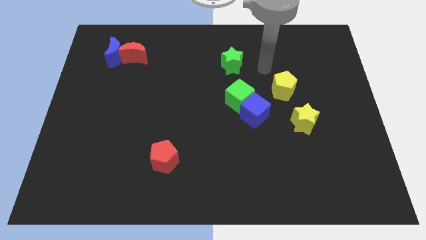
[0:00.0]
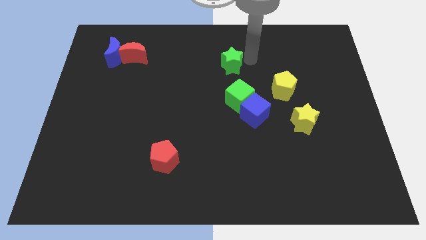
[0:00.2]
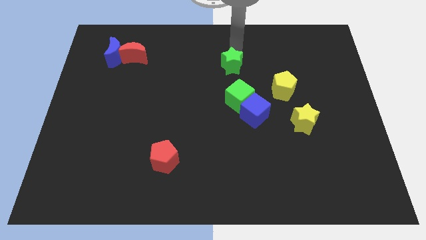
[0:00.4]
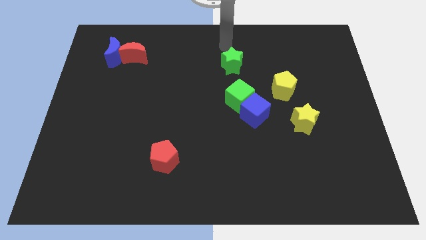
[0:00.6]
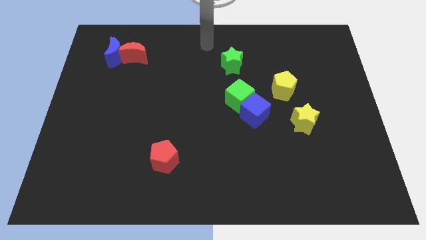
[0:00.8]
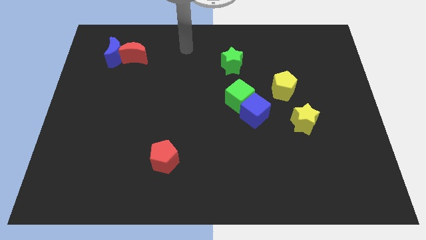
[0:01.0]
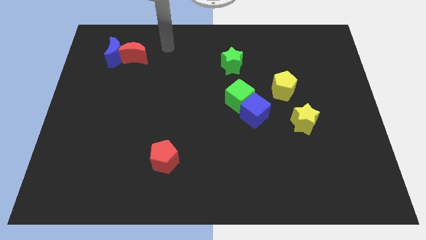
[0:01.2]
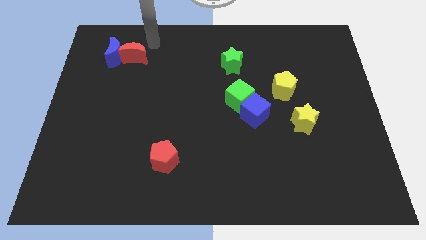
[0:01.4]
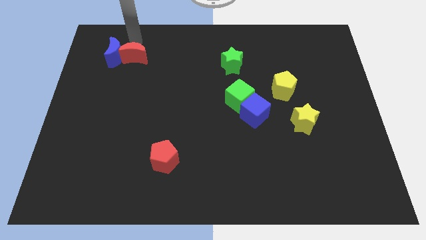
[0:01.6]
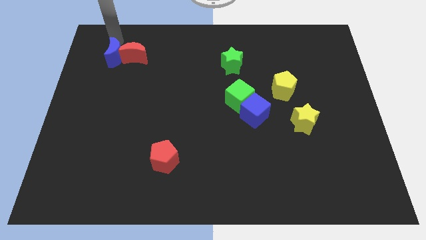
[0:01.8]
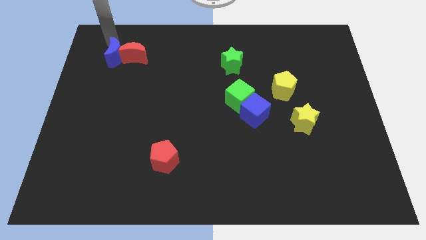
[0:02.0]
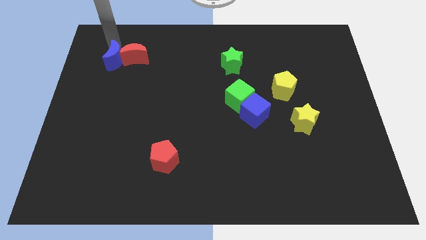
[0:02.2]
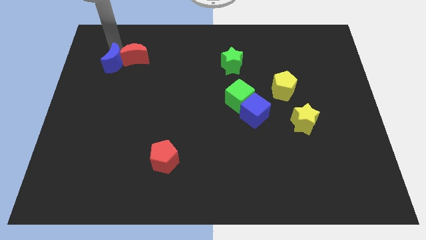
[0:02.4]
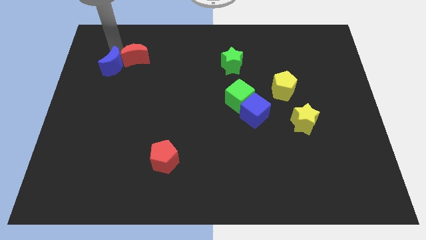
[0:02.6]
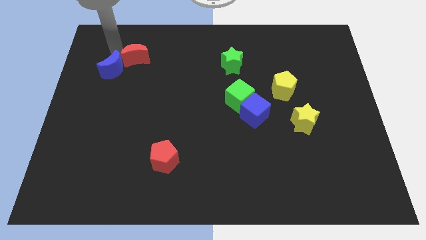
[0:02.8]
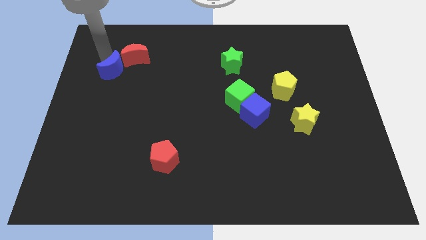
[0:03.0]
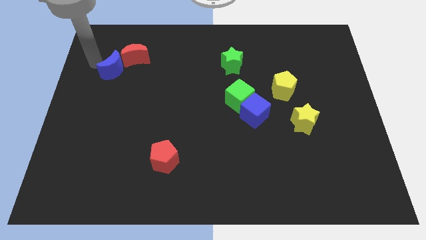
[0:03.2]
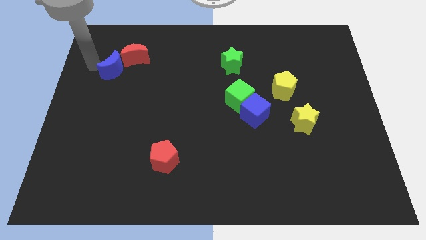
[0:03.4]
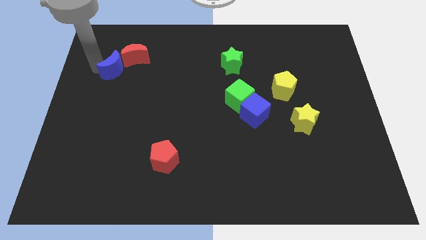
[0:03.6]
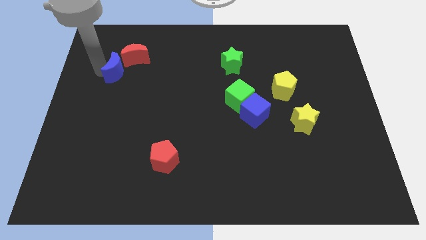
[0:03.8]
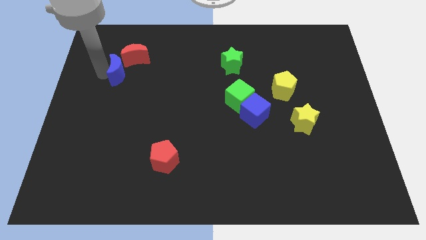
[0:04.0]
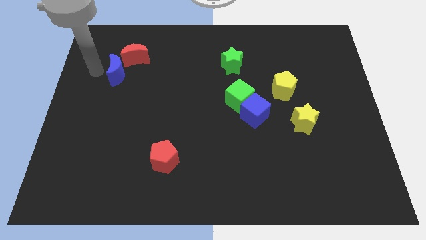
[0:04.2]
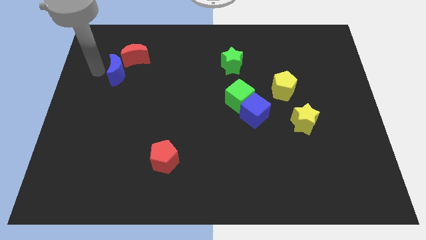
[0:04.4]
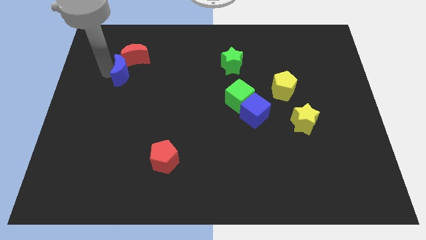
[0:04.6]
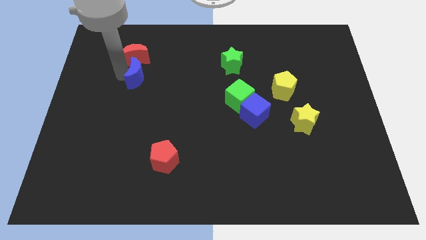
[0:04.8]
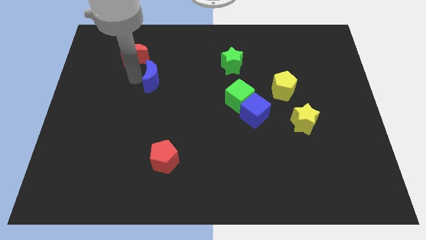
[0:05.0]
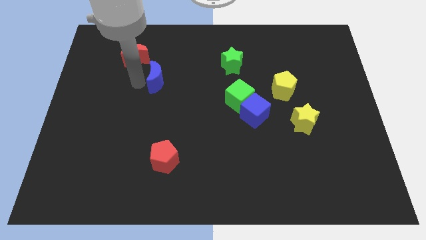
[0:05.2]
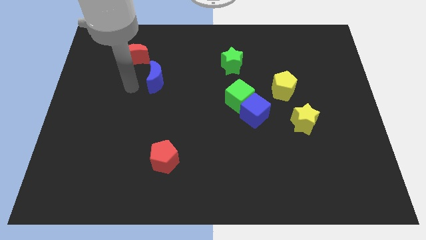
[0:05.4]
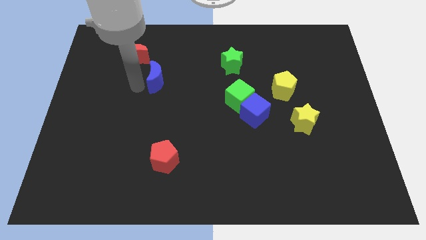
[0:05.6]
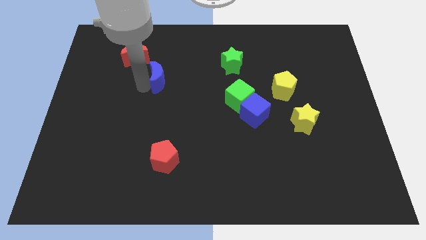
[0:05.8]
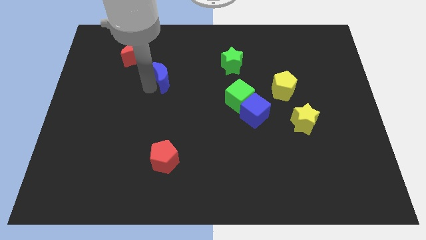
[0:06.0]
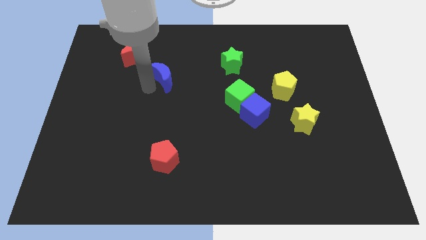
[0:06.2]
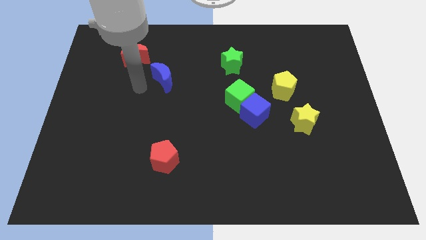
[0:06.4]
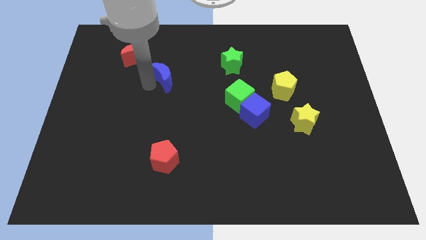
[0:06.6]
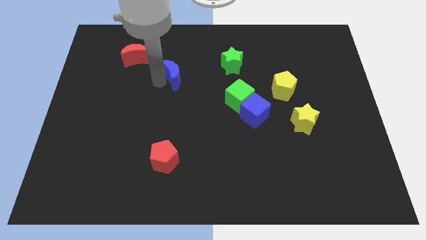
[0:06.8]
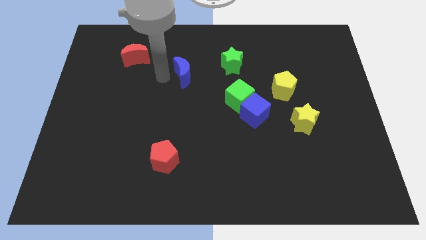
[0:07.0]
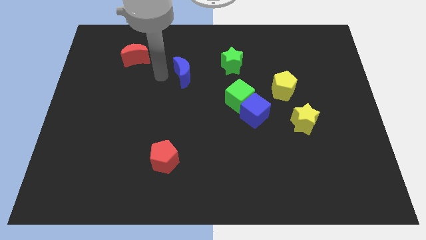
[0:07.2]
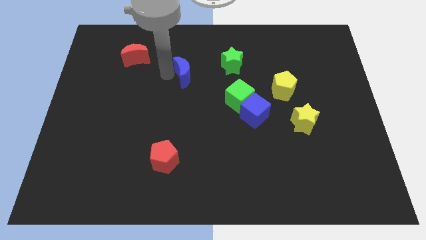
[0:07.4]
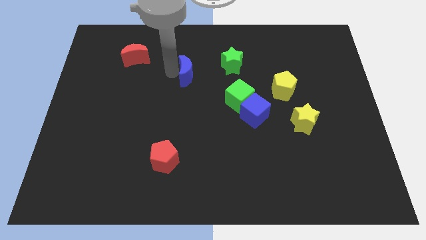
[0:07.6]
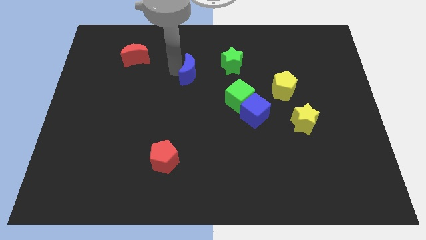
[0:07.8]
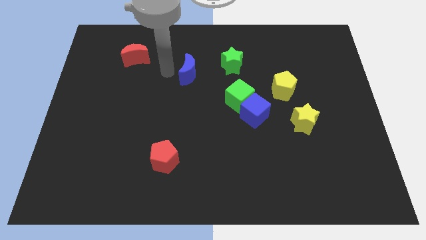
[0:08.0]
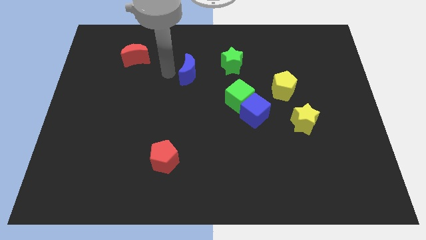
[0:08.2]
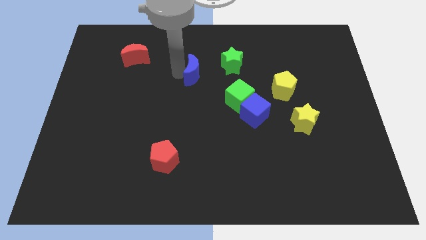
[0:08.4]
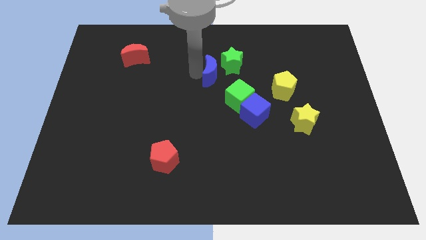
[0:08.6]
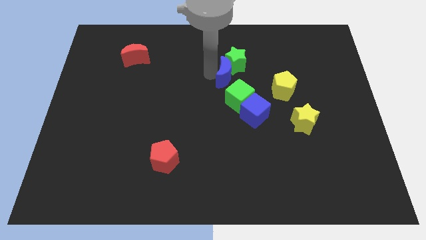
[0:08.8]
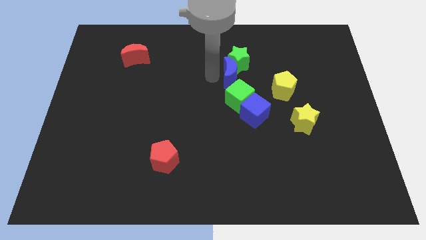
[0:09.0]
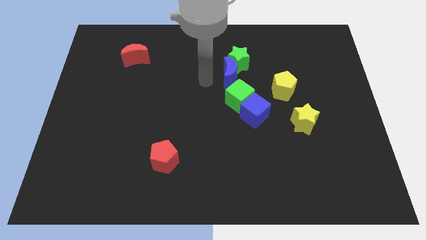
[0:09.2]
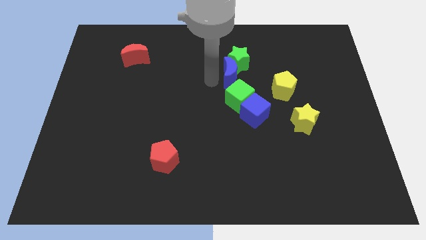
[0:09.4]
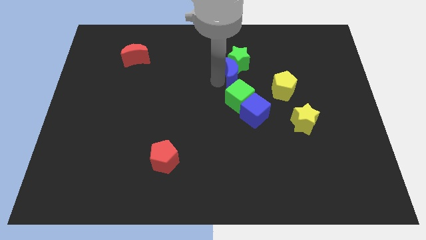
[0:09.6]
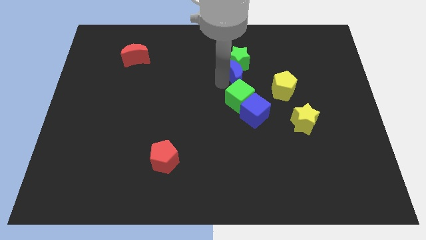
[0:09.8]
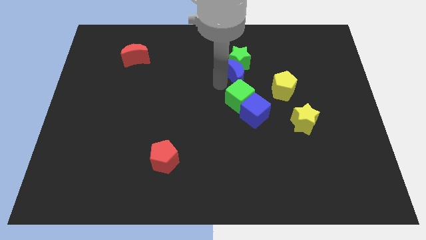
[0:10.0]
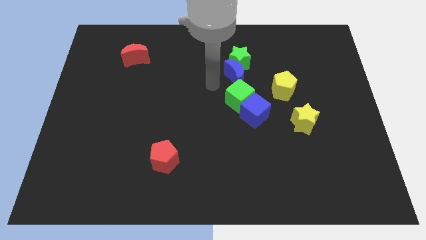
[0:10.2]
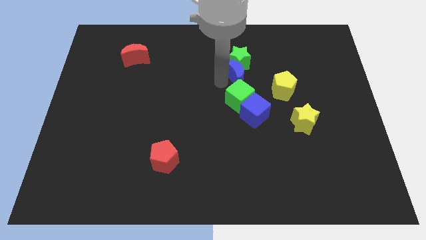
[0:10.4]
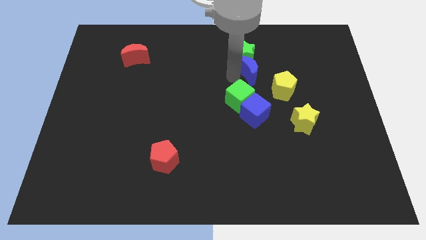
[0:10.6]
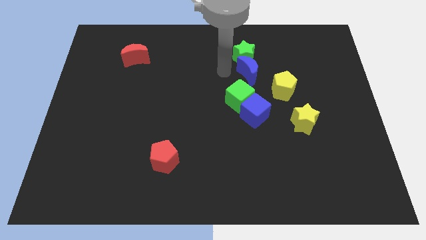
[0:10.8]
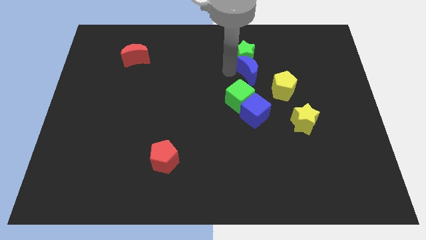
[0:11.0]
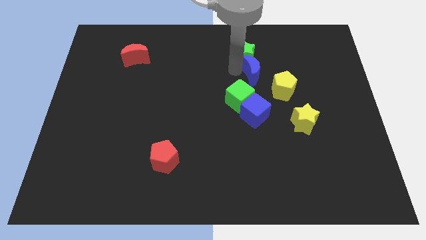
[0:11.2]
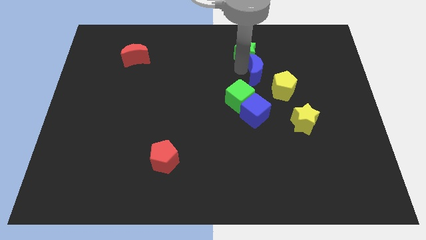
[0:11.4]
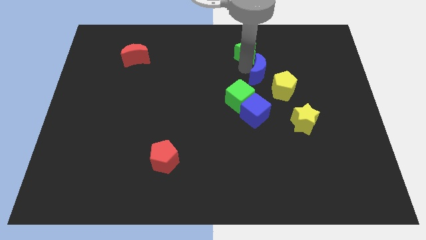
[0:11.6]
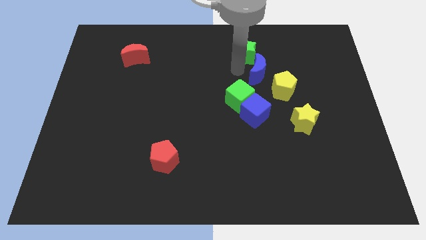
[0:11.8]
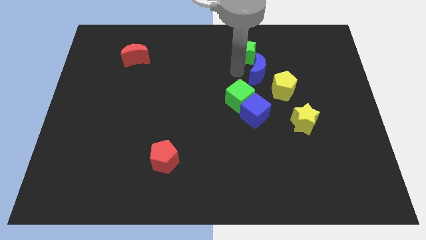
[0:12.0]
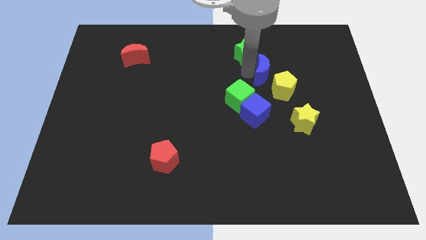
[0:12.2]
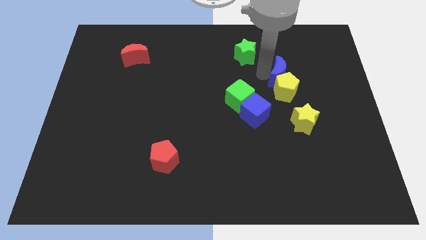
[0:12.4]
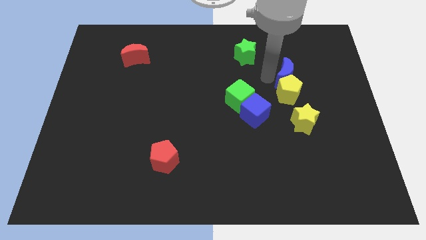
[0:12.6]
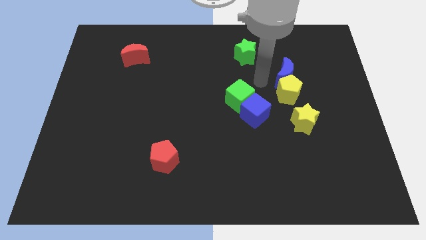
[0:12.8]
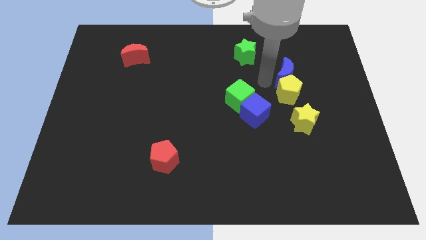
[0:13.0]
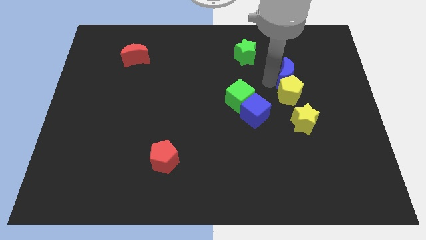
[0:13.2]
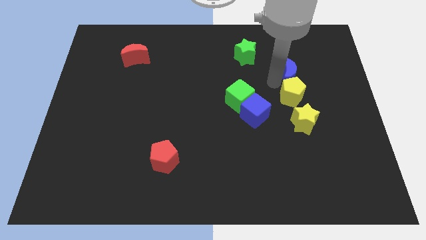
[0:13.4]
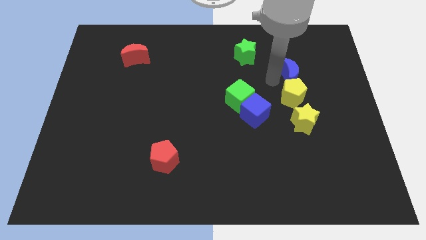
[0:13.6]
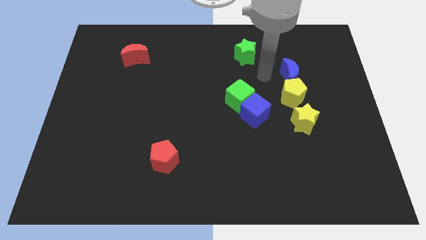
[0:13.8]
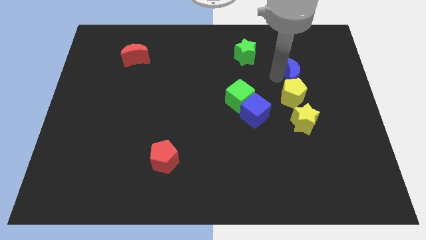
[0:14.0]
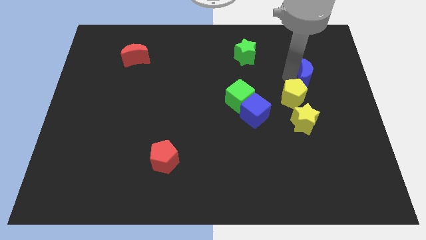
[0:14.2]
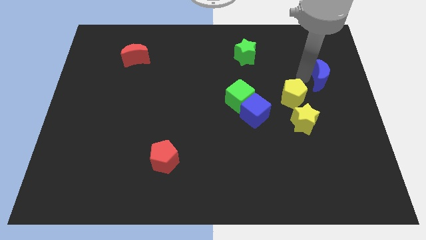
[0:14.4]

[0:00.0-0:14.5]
push the blue moon to the right side
